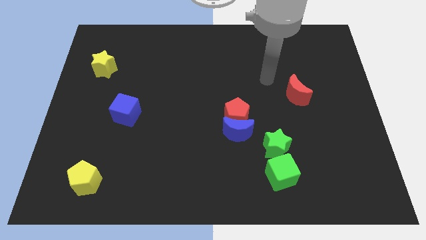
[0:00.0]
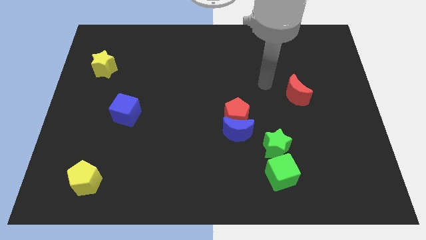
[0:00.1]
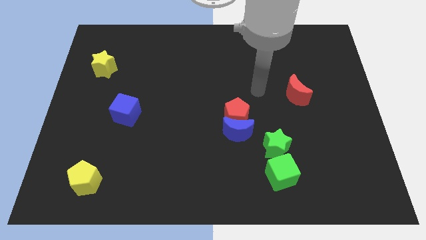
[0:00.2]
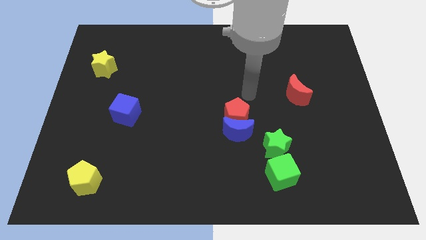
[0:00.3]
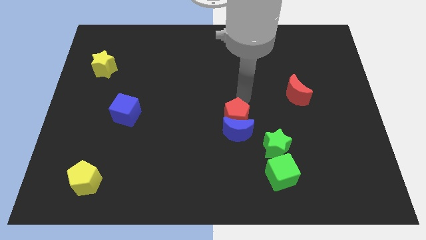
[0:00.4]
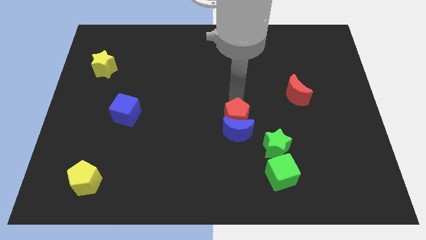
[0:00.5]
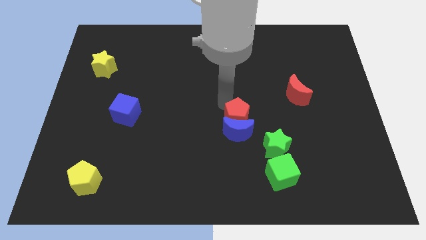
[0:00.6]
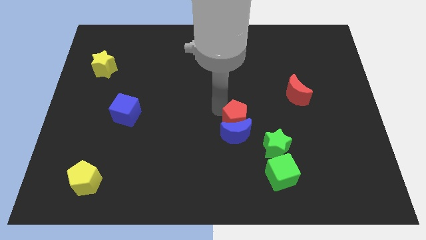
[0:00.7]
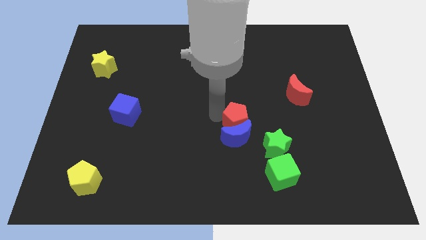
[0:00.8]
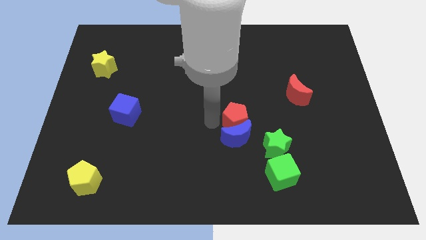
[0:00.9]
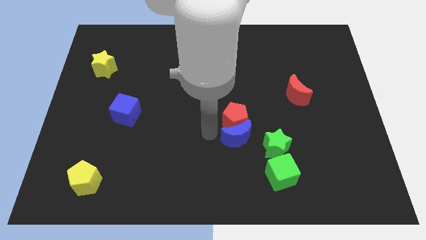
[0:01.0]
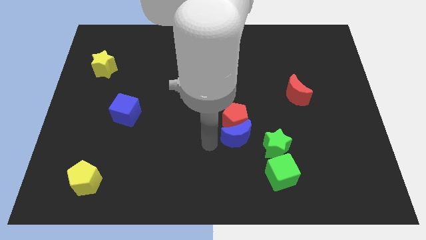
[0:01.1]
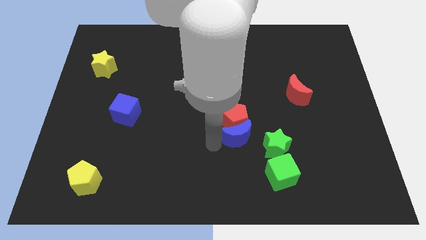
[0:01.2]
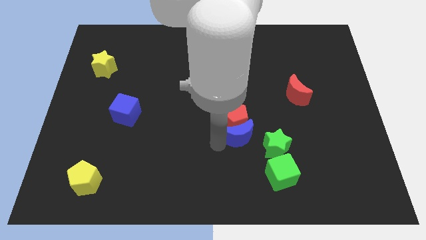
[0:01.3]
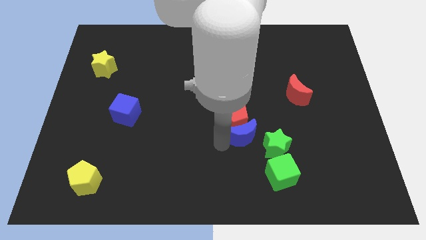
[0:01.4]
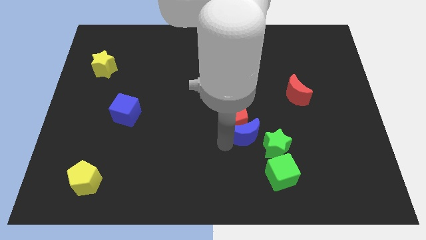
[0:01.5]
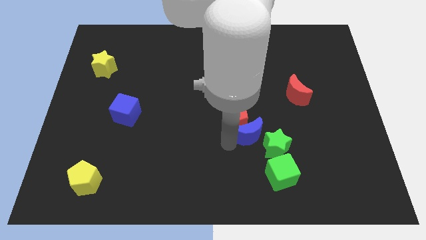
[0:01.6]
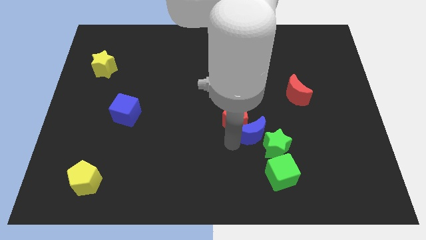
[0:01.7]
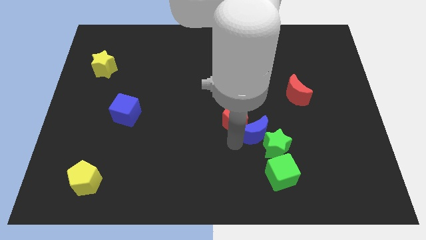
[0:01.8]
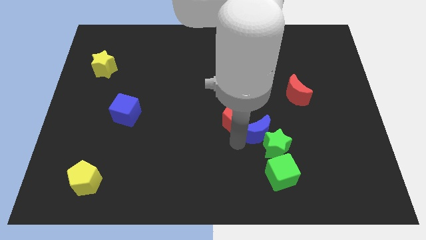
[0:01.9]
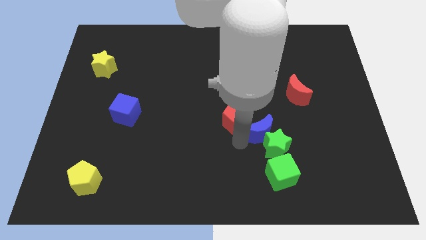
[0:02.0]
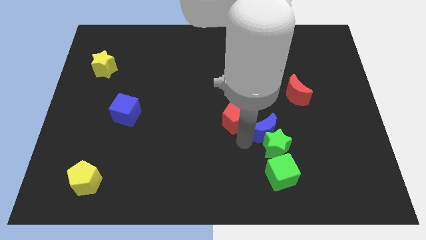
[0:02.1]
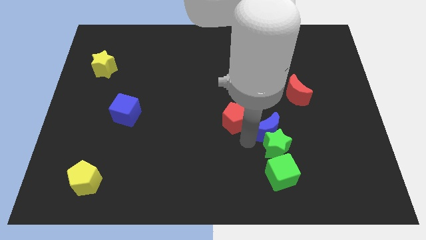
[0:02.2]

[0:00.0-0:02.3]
push the blue moon a bit right

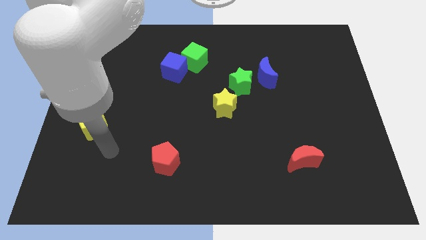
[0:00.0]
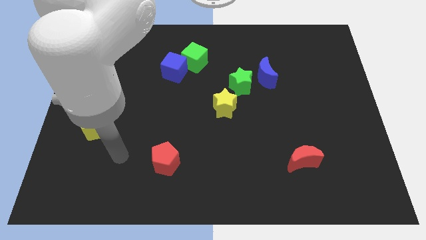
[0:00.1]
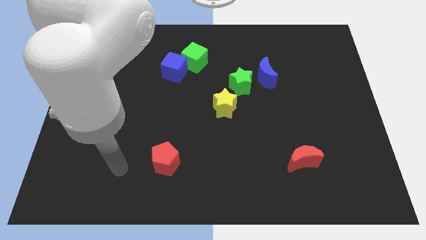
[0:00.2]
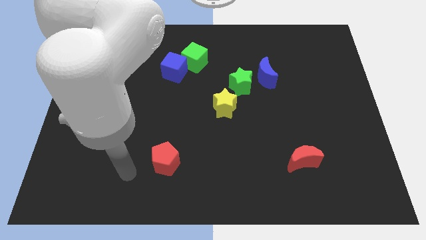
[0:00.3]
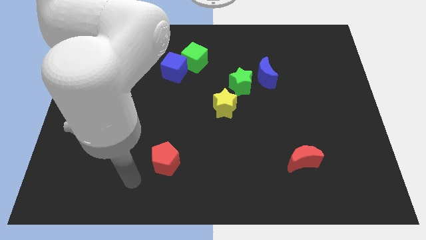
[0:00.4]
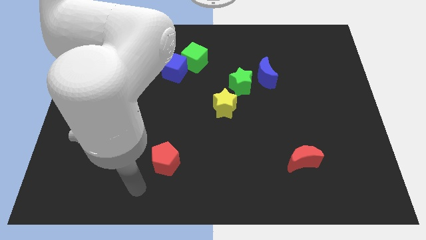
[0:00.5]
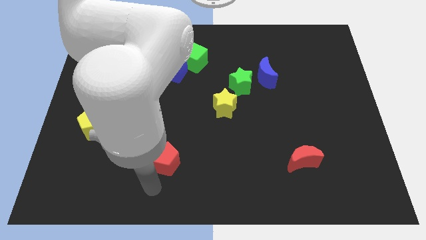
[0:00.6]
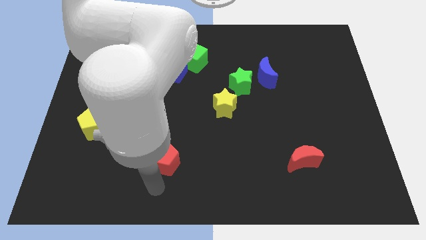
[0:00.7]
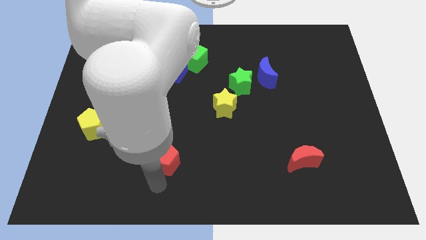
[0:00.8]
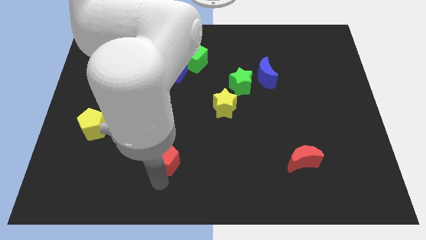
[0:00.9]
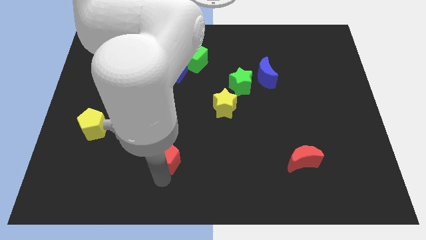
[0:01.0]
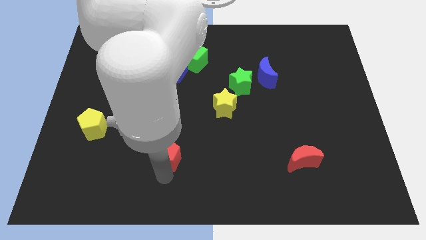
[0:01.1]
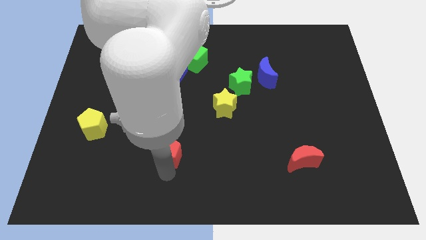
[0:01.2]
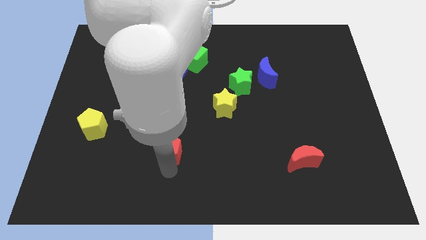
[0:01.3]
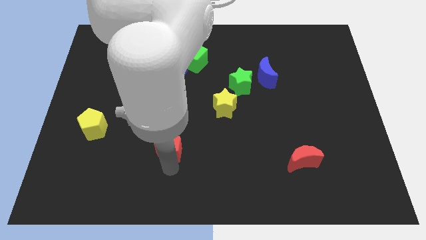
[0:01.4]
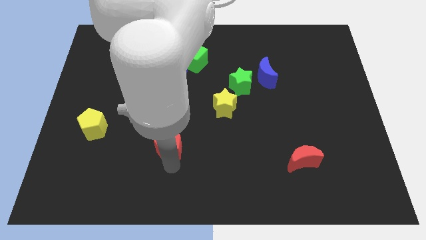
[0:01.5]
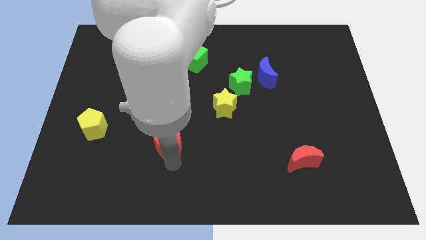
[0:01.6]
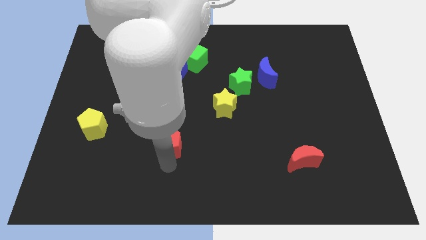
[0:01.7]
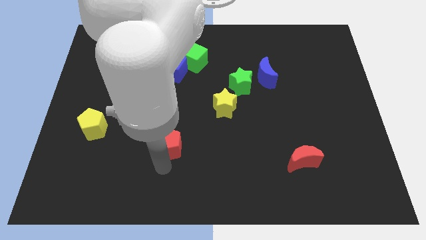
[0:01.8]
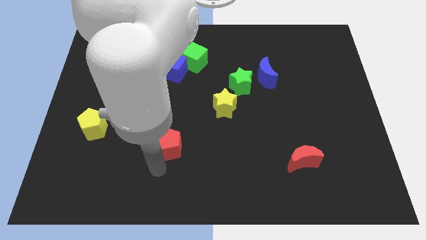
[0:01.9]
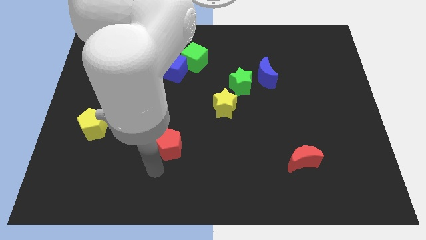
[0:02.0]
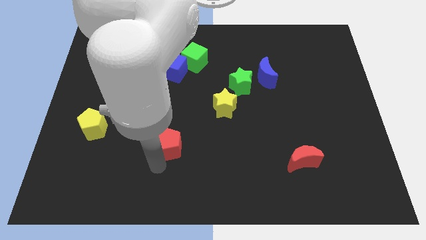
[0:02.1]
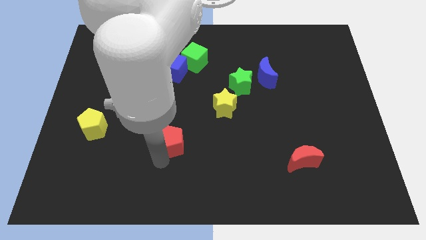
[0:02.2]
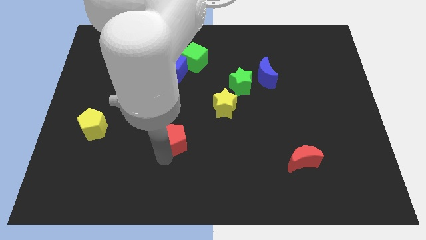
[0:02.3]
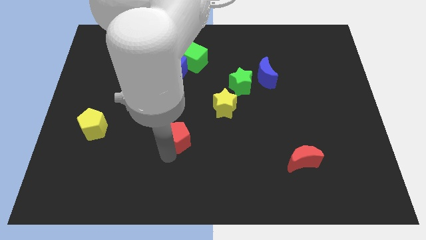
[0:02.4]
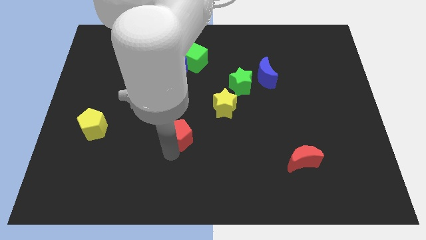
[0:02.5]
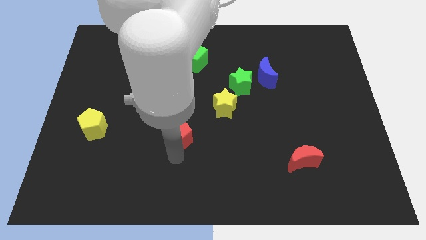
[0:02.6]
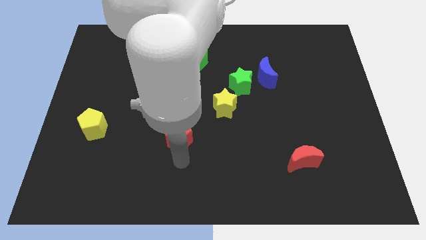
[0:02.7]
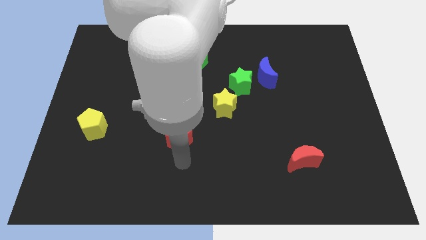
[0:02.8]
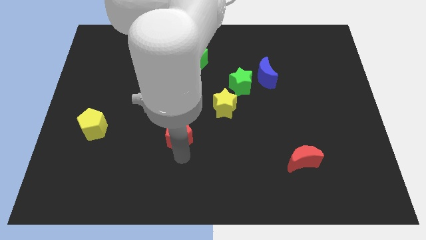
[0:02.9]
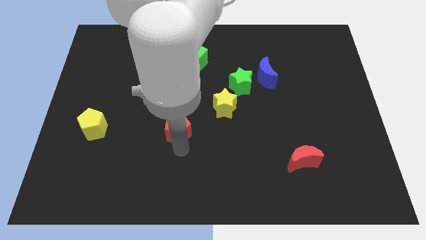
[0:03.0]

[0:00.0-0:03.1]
push the red pentagon a bit up

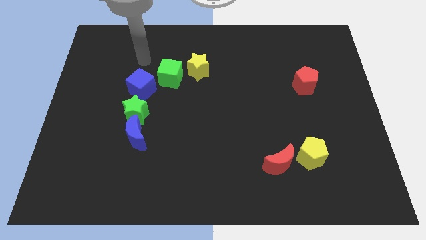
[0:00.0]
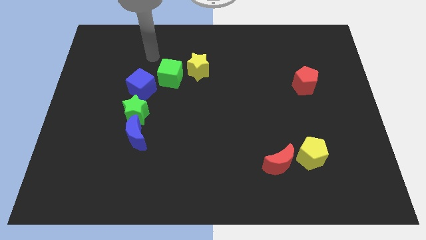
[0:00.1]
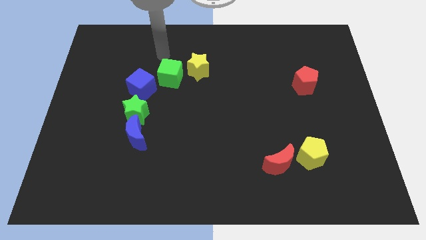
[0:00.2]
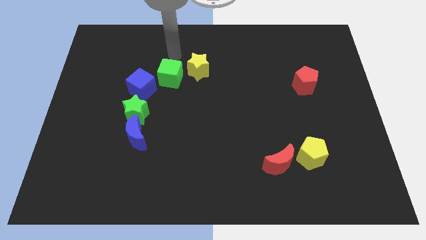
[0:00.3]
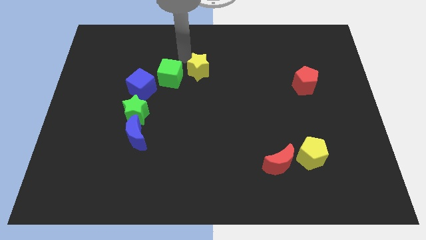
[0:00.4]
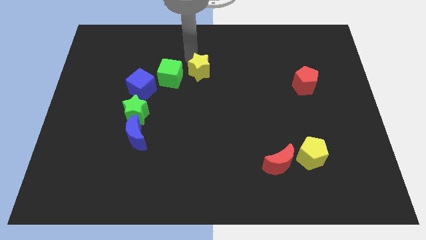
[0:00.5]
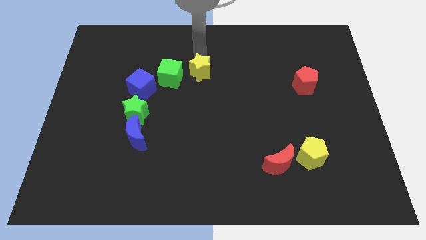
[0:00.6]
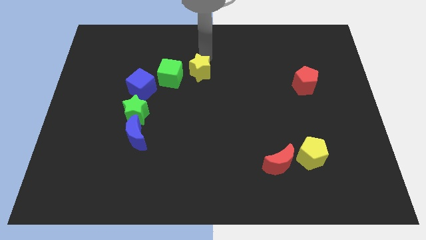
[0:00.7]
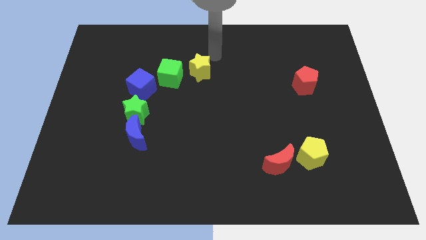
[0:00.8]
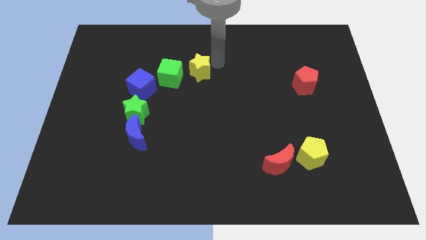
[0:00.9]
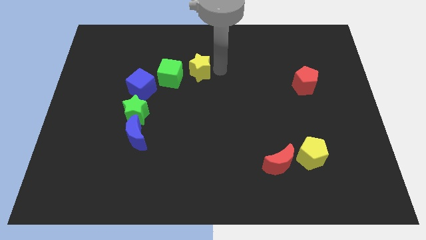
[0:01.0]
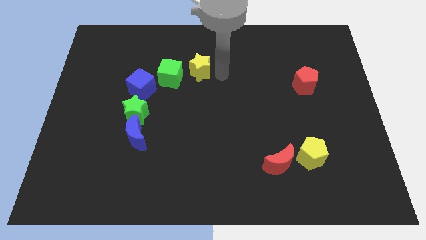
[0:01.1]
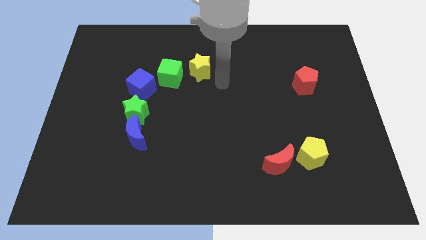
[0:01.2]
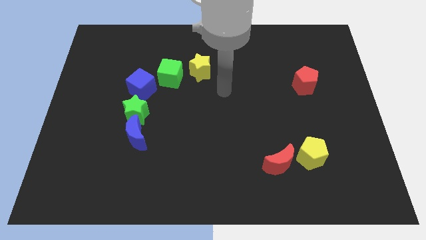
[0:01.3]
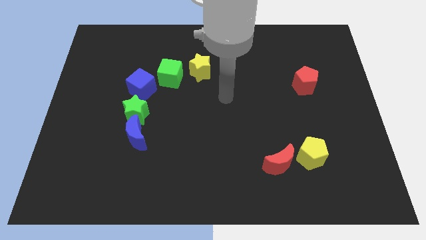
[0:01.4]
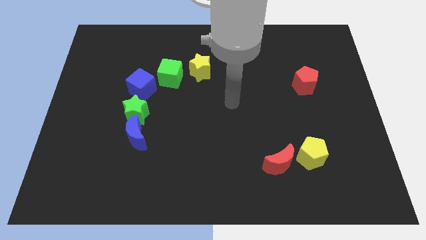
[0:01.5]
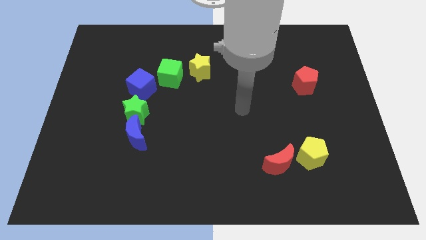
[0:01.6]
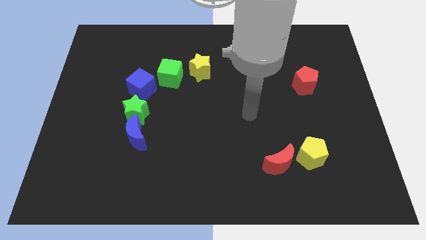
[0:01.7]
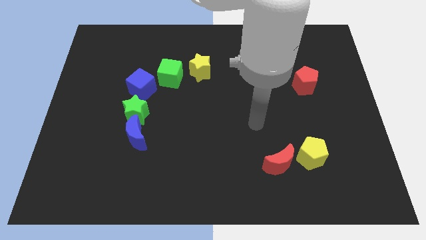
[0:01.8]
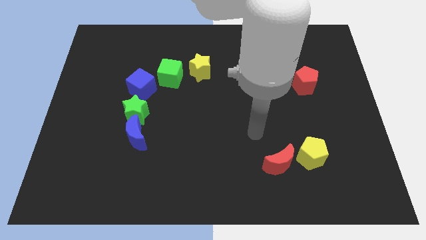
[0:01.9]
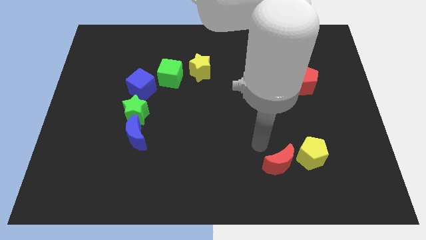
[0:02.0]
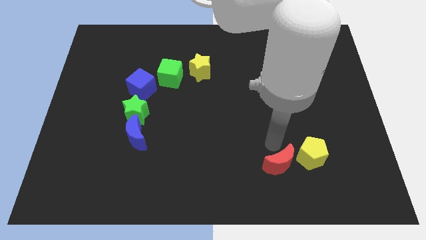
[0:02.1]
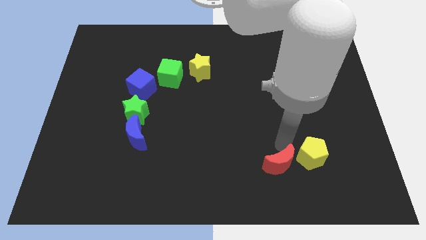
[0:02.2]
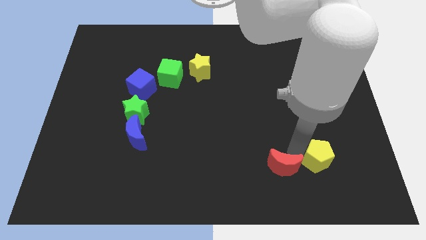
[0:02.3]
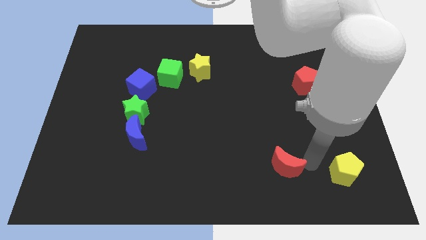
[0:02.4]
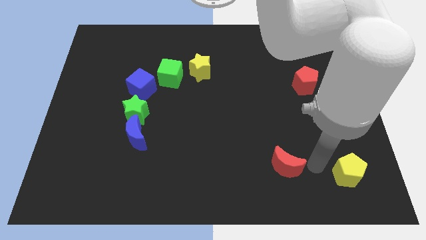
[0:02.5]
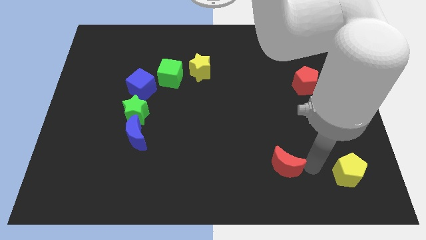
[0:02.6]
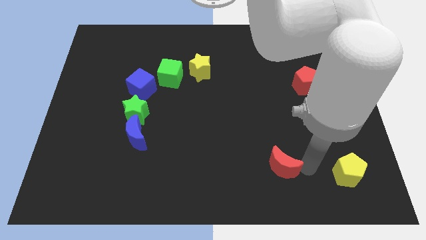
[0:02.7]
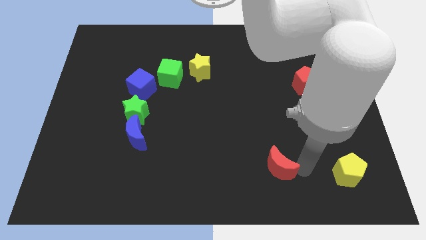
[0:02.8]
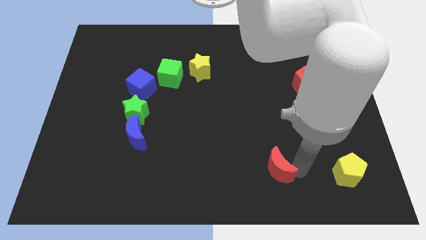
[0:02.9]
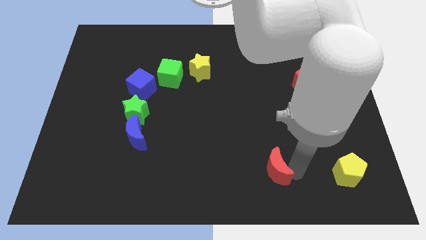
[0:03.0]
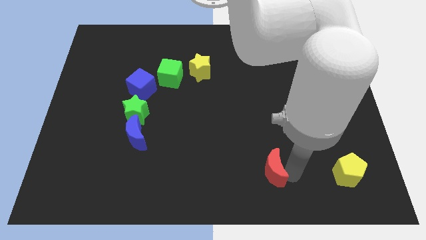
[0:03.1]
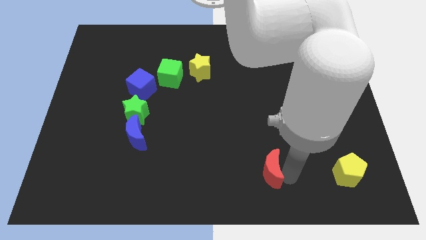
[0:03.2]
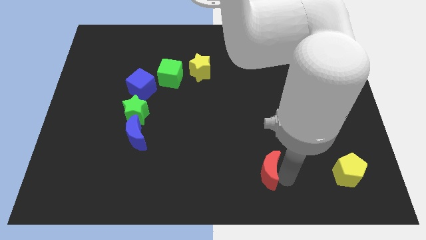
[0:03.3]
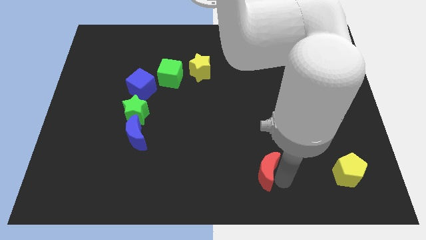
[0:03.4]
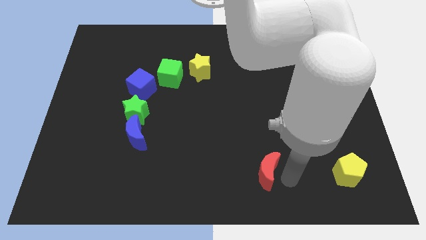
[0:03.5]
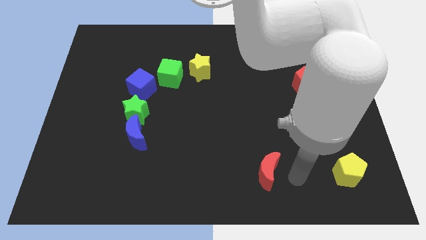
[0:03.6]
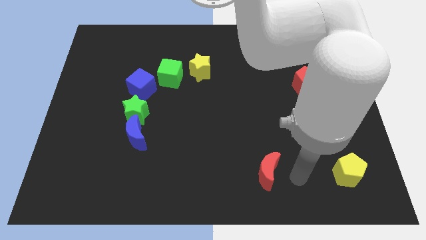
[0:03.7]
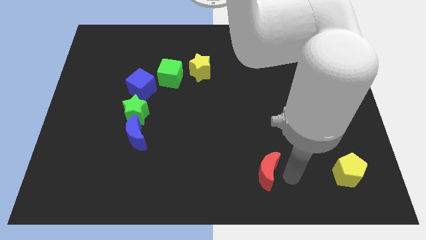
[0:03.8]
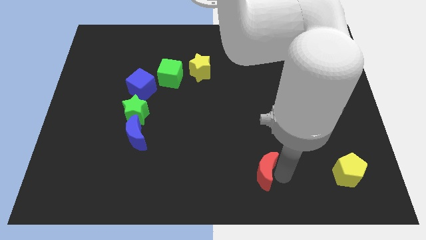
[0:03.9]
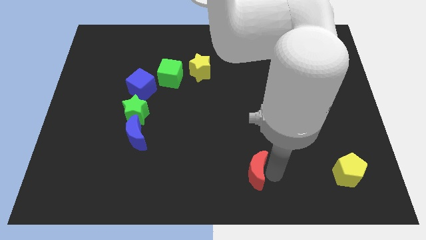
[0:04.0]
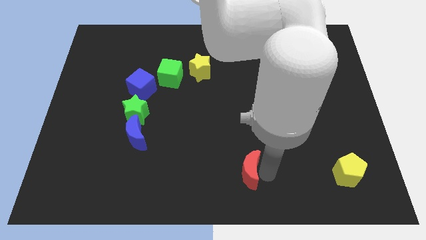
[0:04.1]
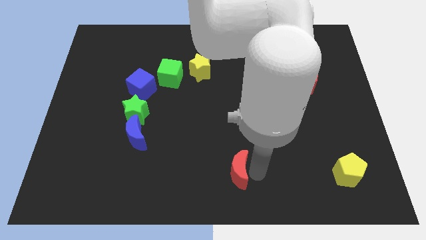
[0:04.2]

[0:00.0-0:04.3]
push the red moon left slightly
